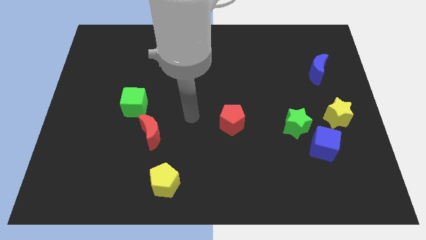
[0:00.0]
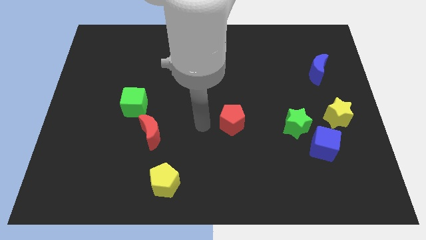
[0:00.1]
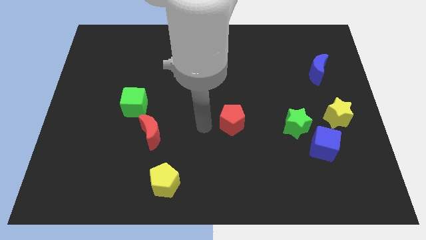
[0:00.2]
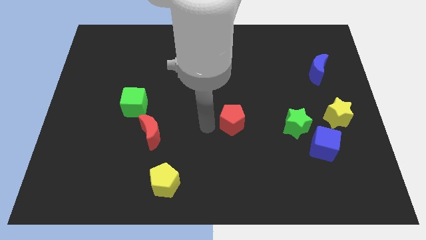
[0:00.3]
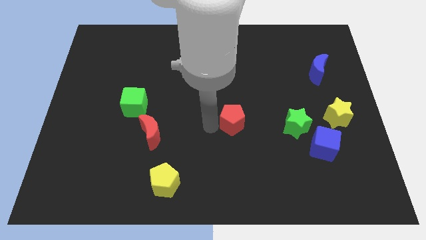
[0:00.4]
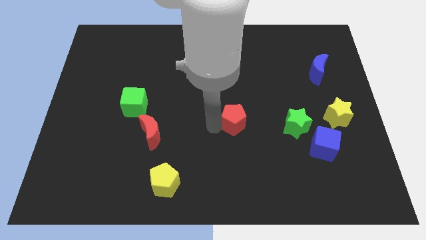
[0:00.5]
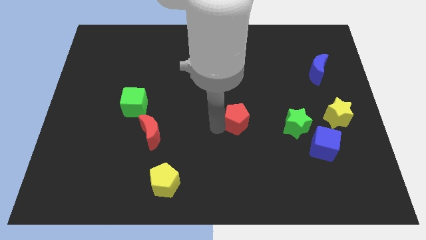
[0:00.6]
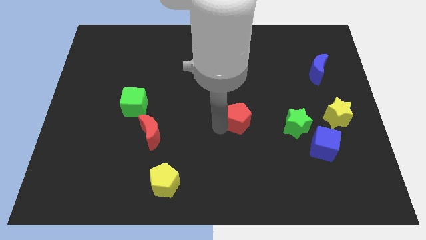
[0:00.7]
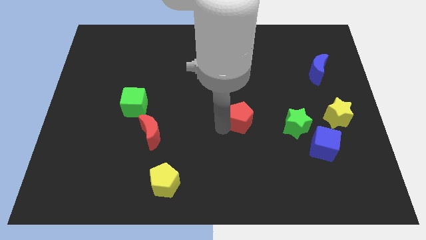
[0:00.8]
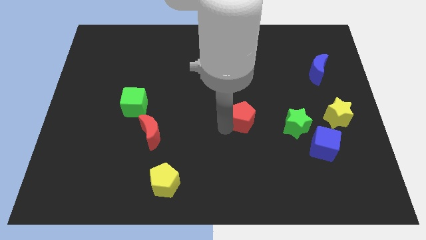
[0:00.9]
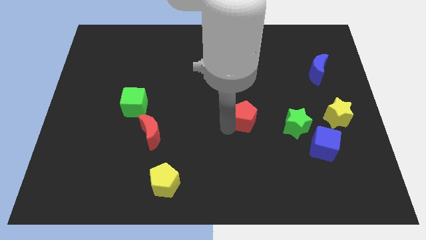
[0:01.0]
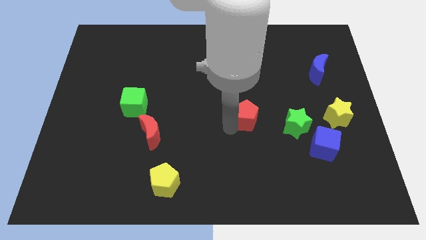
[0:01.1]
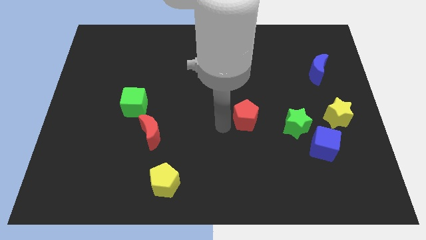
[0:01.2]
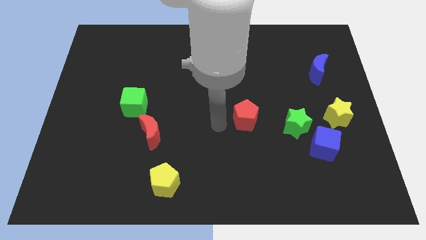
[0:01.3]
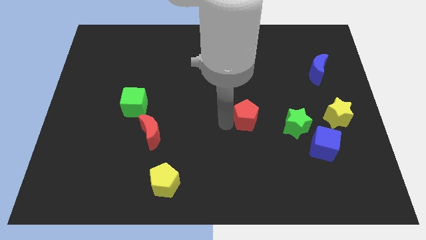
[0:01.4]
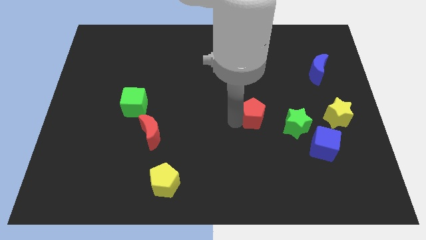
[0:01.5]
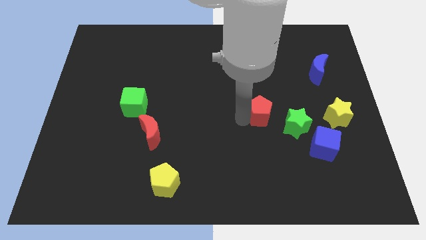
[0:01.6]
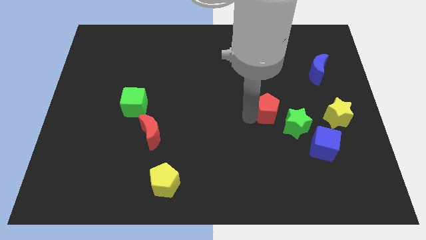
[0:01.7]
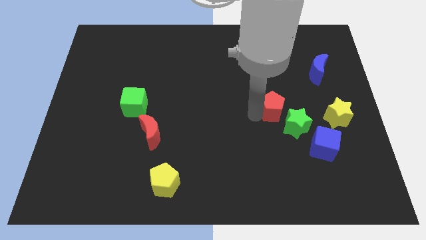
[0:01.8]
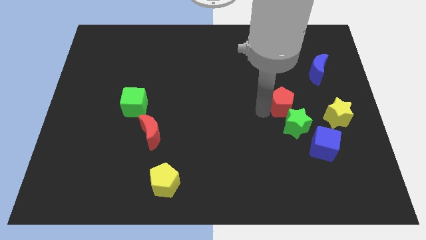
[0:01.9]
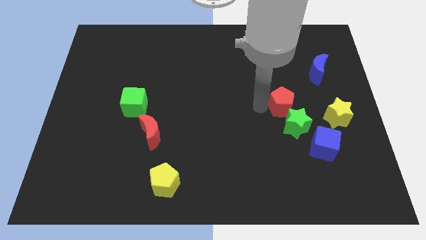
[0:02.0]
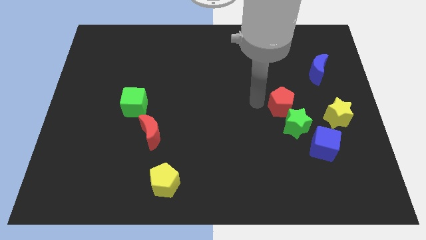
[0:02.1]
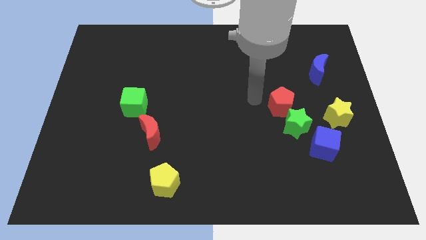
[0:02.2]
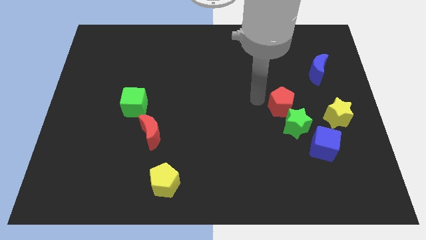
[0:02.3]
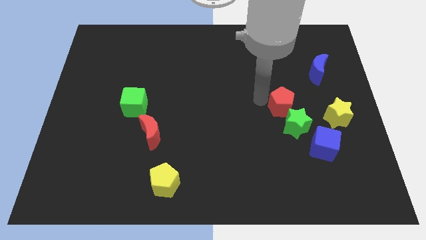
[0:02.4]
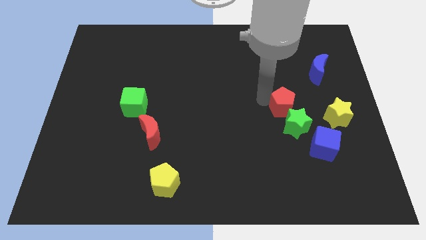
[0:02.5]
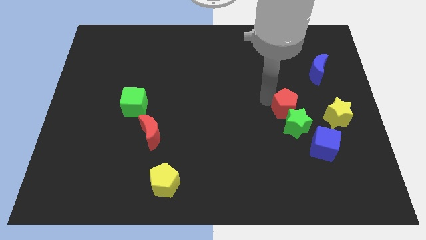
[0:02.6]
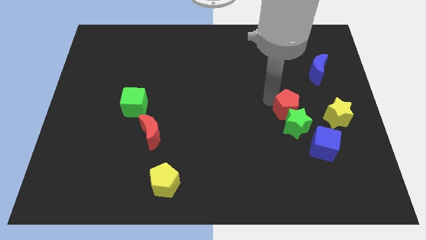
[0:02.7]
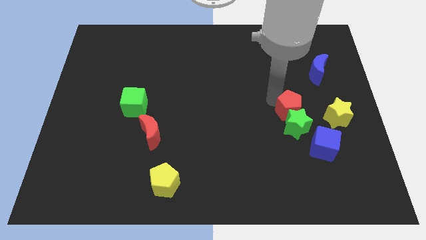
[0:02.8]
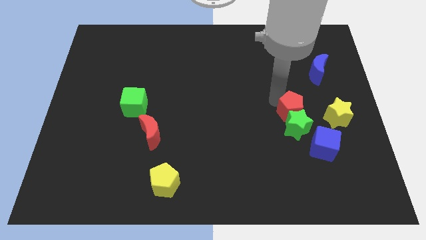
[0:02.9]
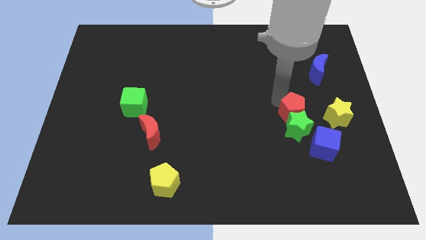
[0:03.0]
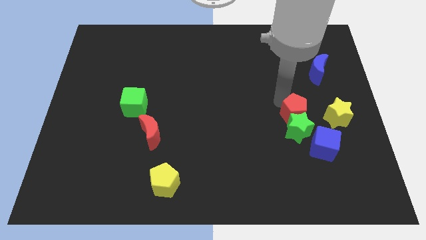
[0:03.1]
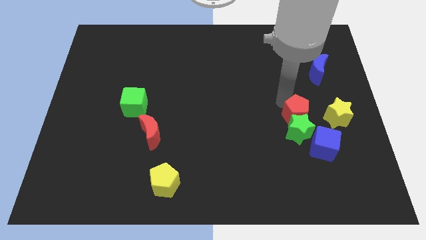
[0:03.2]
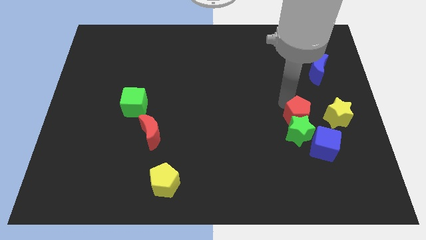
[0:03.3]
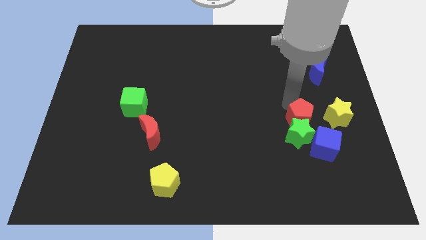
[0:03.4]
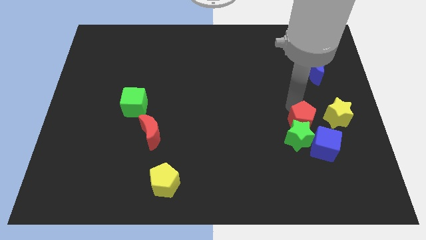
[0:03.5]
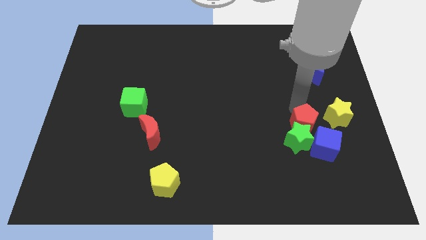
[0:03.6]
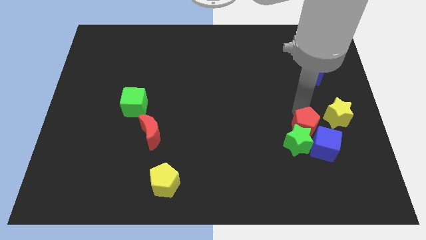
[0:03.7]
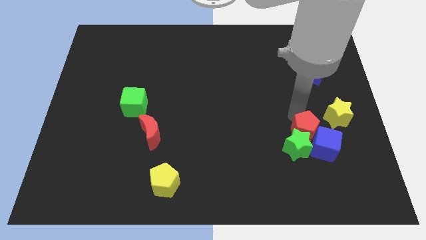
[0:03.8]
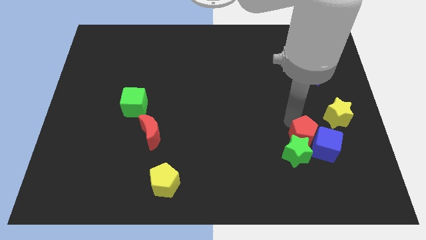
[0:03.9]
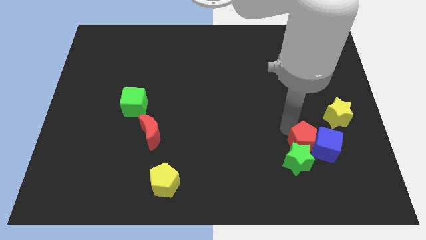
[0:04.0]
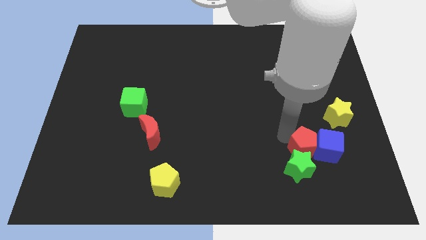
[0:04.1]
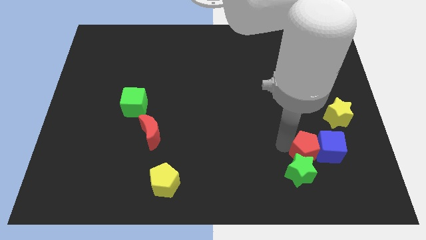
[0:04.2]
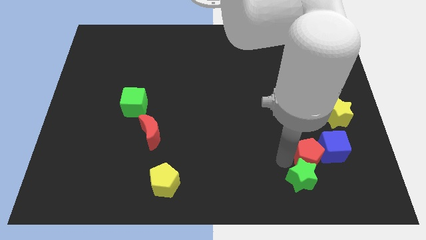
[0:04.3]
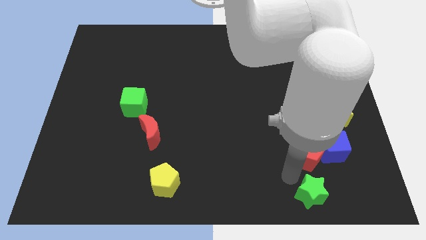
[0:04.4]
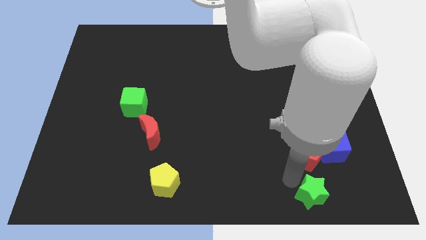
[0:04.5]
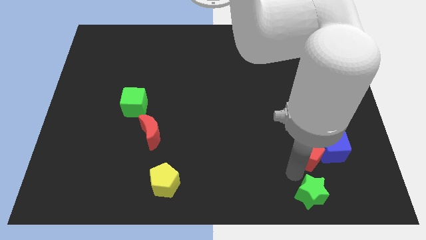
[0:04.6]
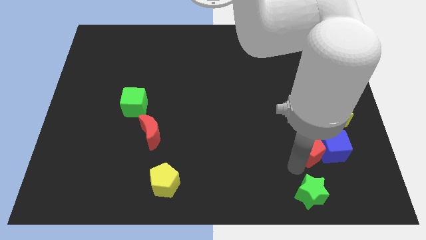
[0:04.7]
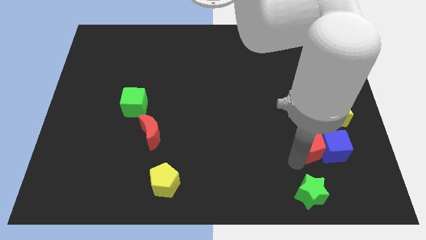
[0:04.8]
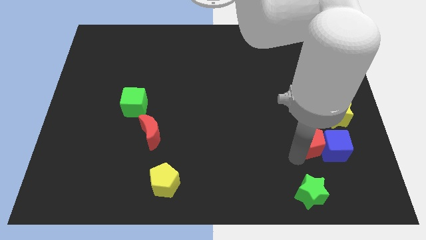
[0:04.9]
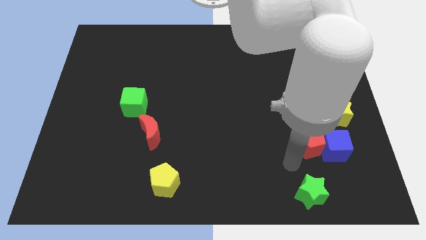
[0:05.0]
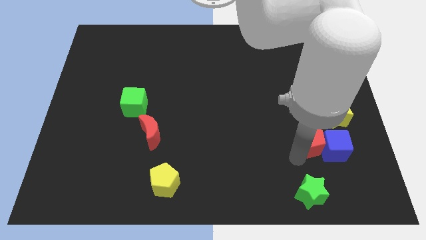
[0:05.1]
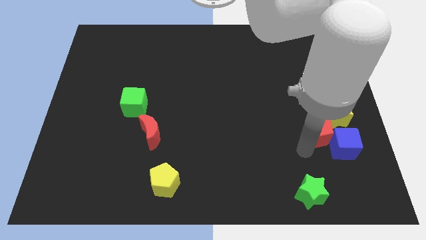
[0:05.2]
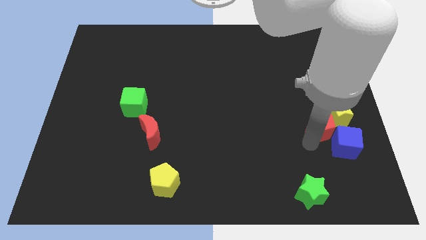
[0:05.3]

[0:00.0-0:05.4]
put the red pentagon next to the yellow star

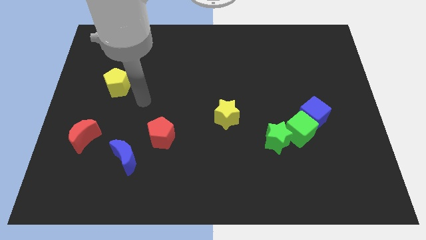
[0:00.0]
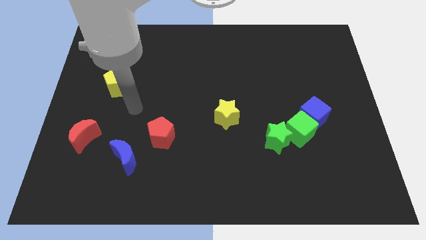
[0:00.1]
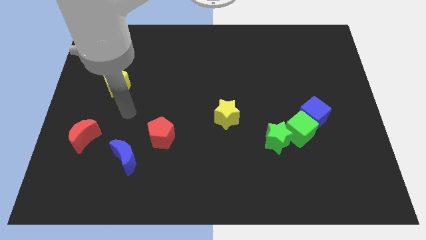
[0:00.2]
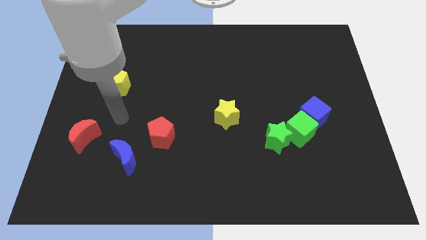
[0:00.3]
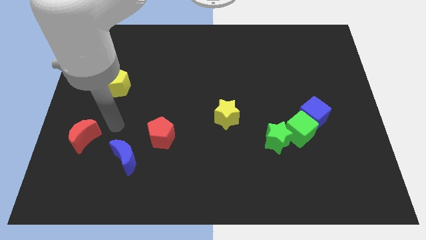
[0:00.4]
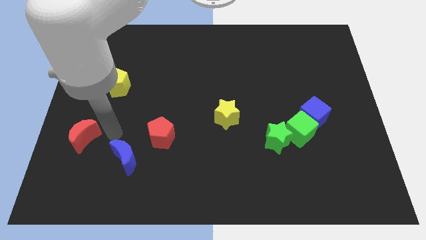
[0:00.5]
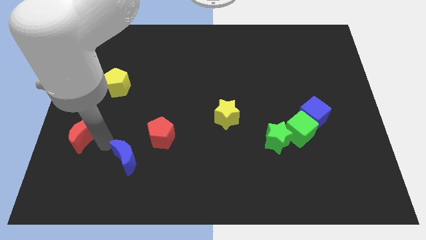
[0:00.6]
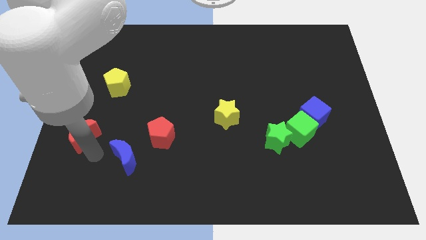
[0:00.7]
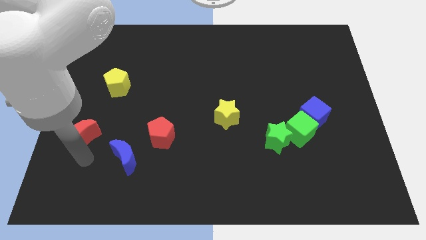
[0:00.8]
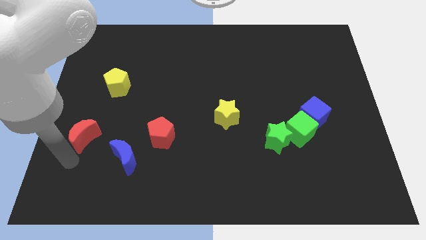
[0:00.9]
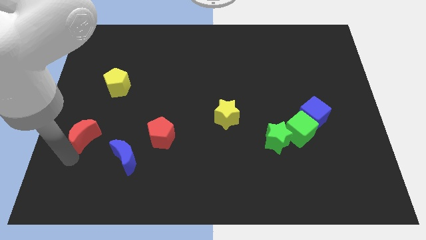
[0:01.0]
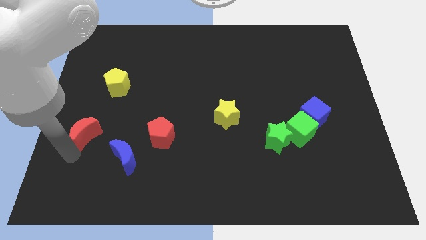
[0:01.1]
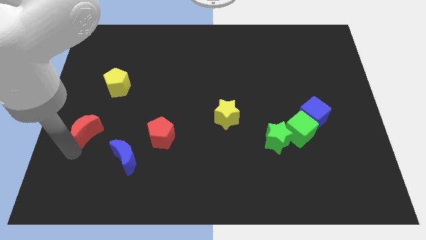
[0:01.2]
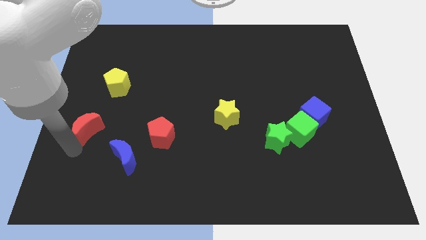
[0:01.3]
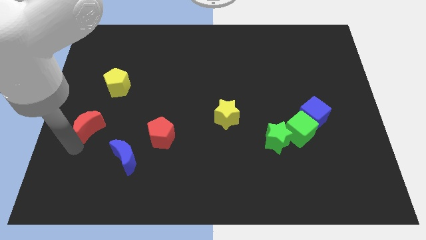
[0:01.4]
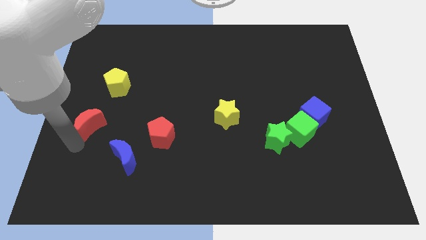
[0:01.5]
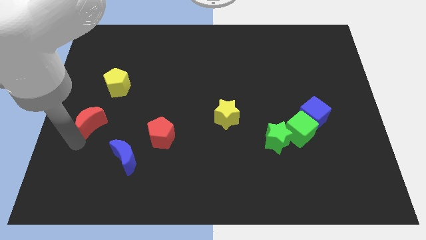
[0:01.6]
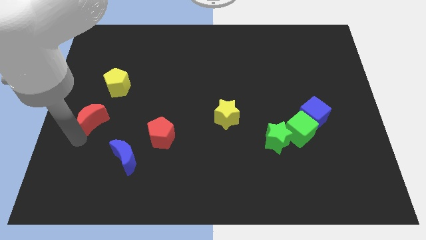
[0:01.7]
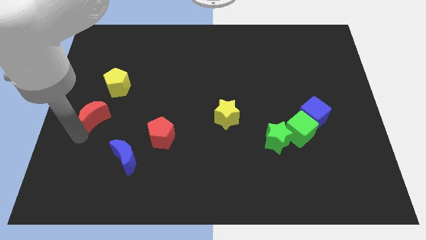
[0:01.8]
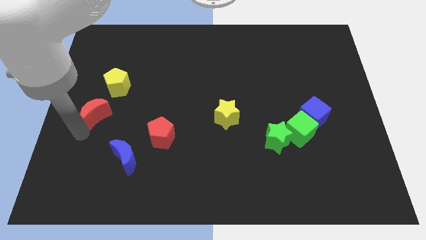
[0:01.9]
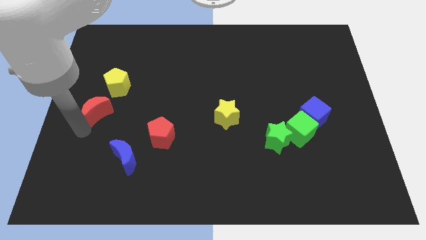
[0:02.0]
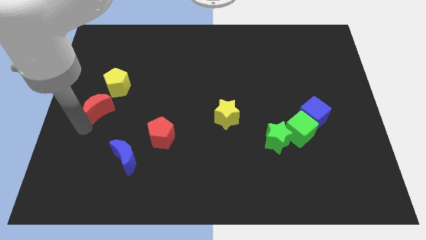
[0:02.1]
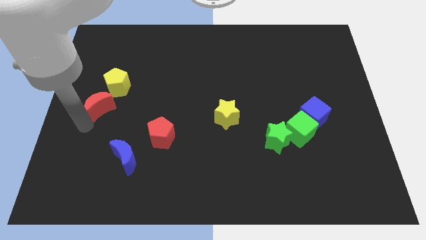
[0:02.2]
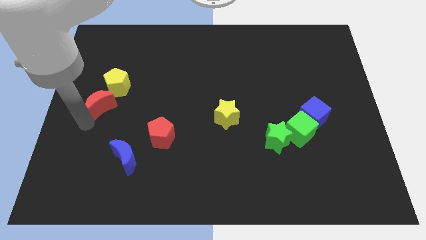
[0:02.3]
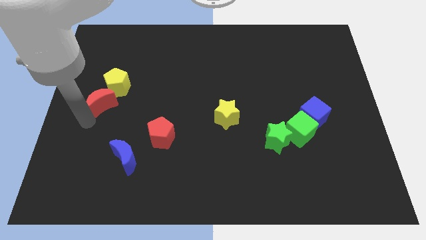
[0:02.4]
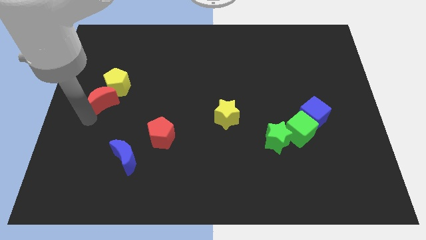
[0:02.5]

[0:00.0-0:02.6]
slide the red moon towards the yellow pentagon
